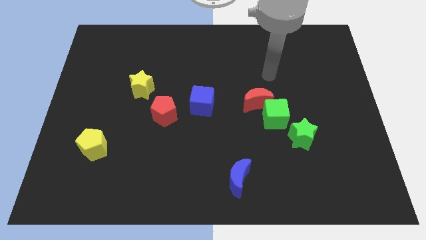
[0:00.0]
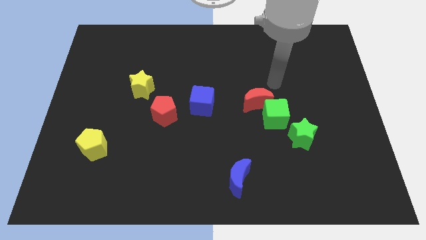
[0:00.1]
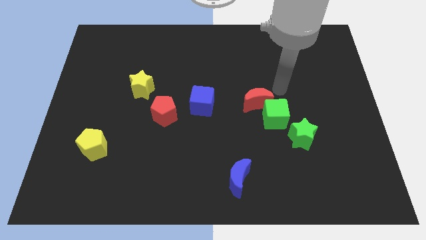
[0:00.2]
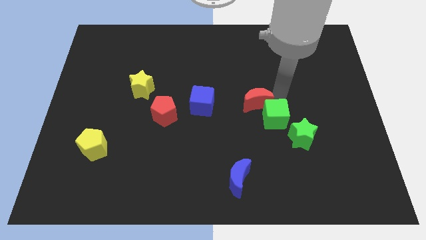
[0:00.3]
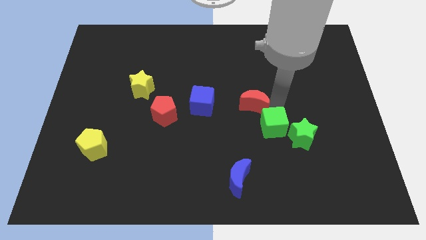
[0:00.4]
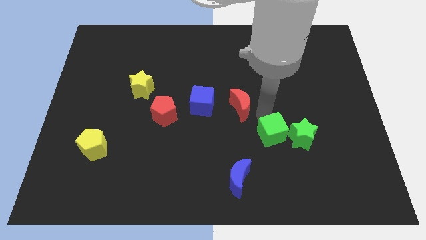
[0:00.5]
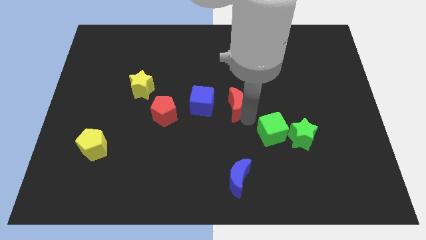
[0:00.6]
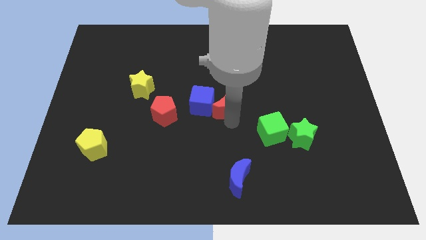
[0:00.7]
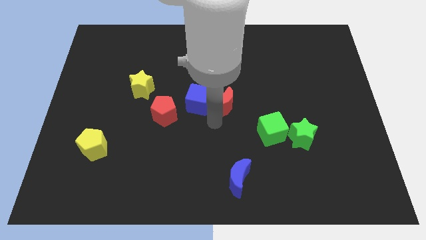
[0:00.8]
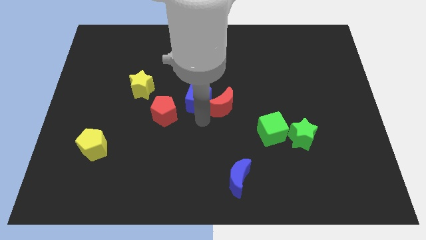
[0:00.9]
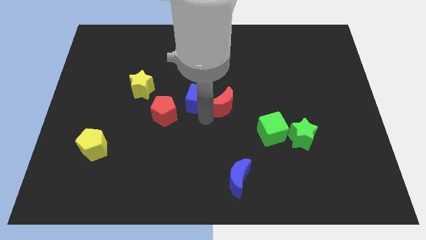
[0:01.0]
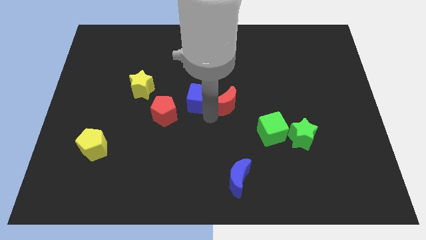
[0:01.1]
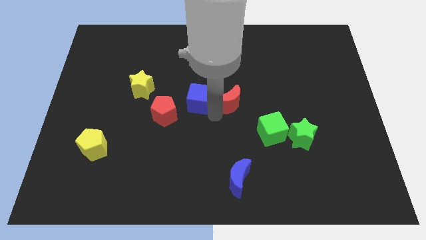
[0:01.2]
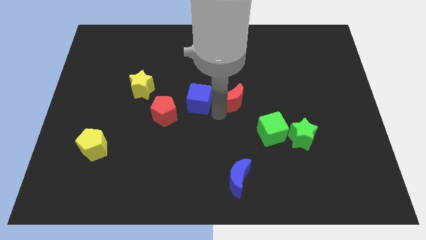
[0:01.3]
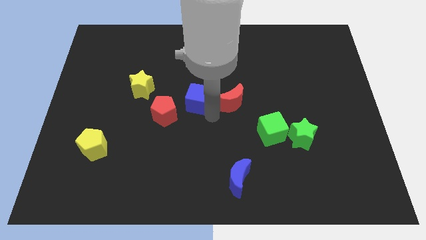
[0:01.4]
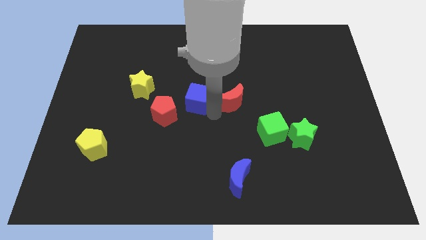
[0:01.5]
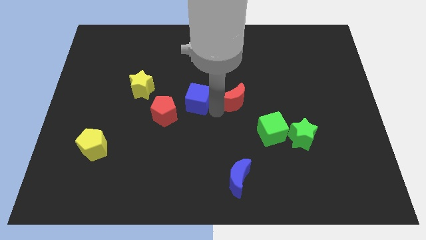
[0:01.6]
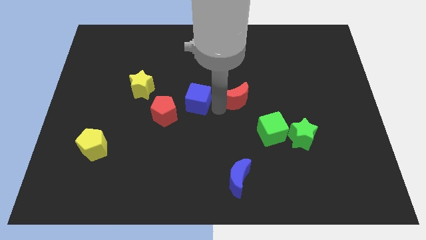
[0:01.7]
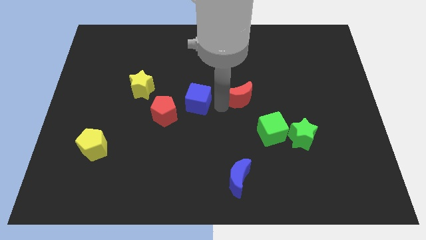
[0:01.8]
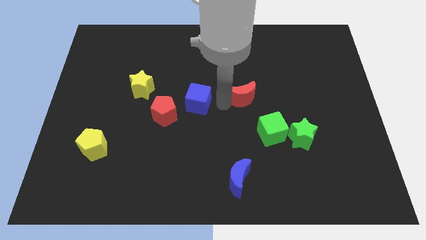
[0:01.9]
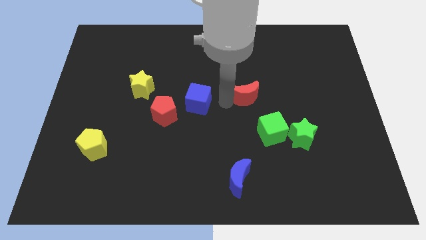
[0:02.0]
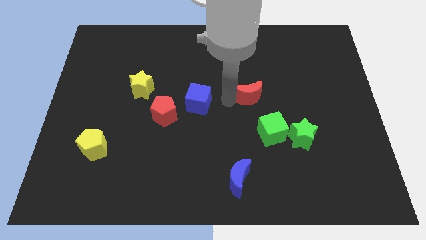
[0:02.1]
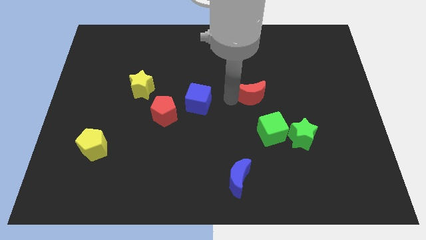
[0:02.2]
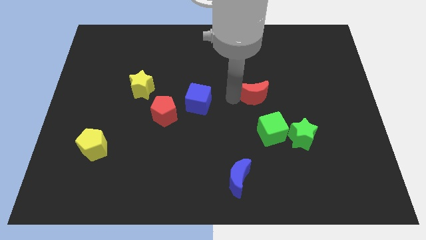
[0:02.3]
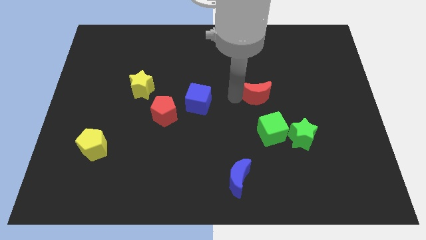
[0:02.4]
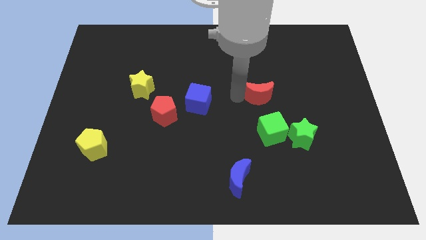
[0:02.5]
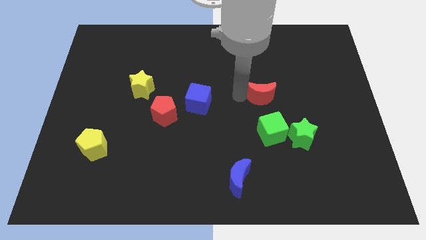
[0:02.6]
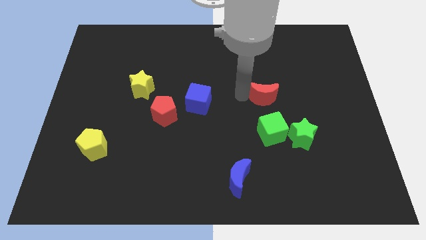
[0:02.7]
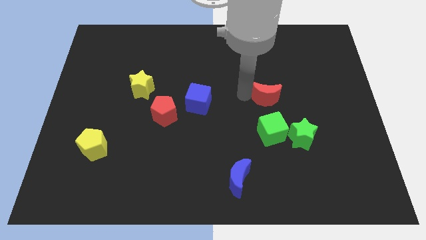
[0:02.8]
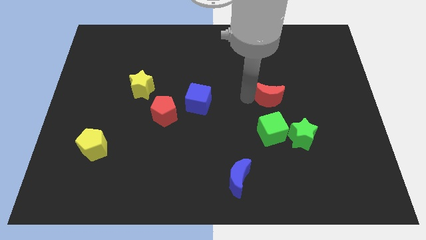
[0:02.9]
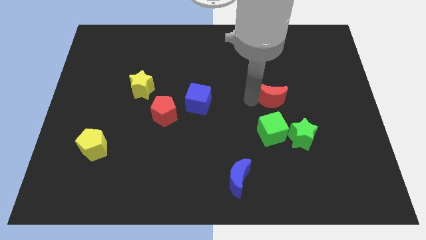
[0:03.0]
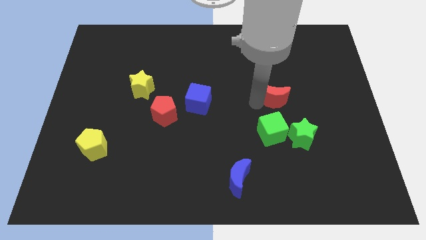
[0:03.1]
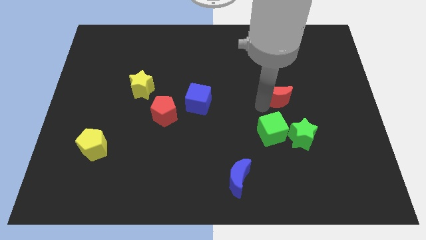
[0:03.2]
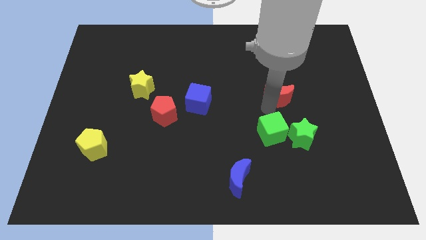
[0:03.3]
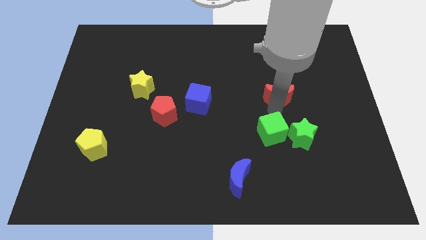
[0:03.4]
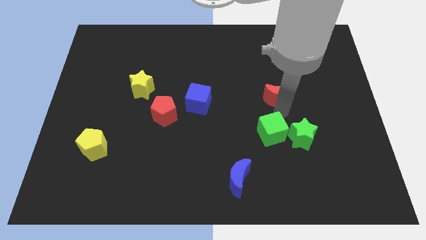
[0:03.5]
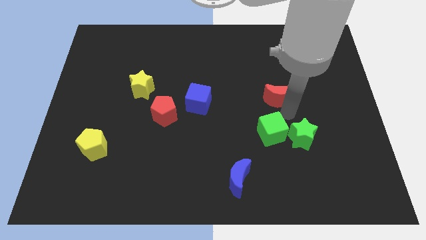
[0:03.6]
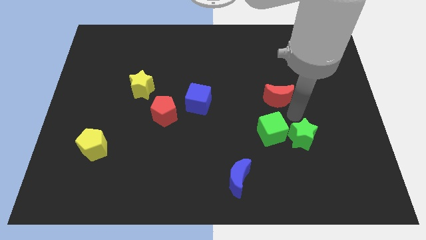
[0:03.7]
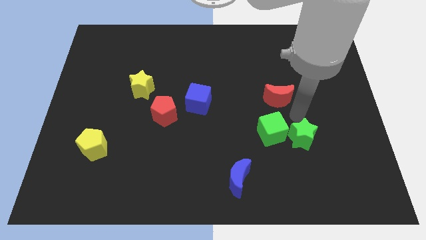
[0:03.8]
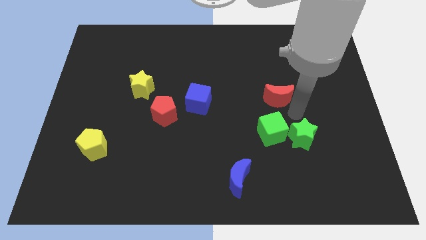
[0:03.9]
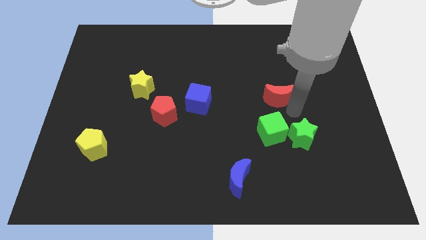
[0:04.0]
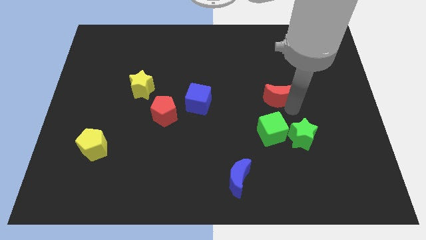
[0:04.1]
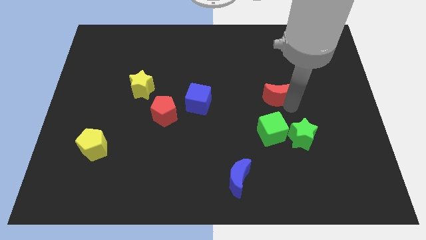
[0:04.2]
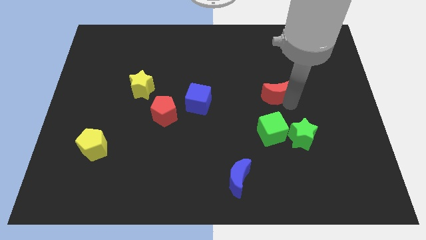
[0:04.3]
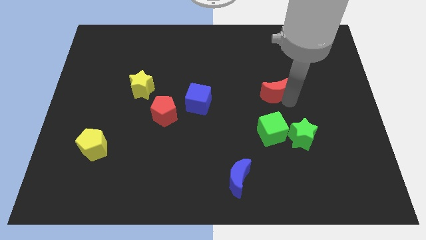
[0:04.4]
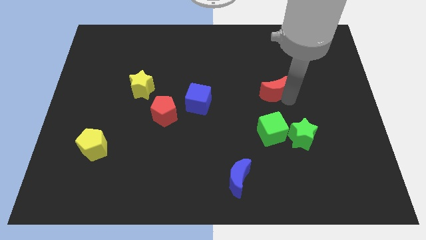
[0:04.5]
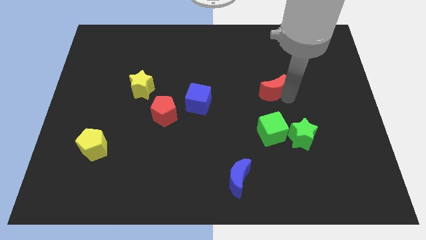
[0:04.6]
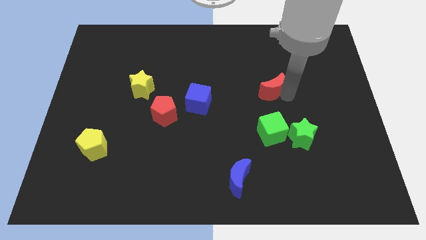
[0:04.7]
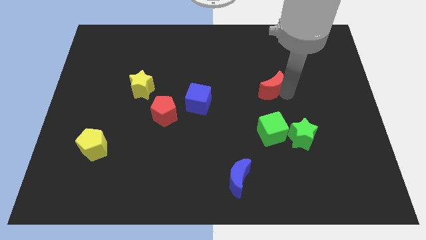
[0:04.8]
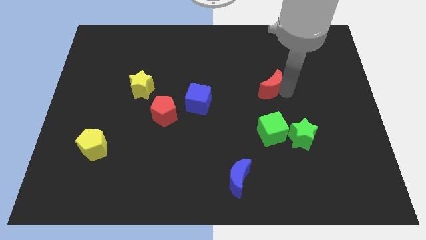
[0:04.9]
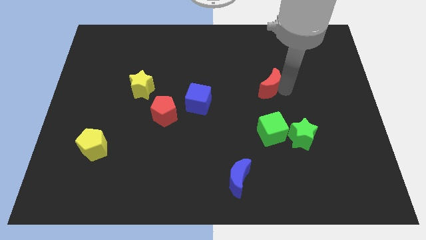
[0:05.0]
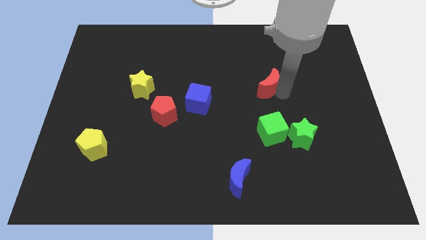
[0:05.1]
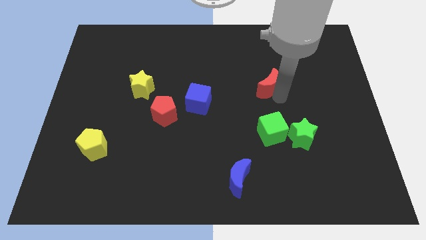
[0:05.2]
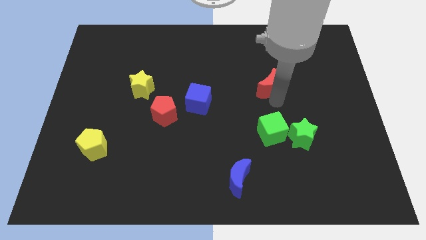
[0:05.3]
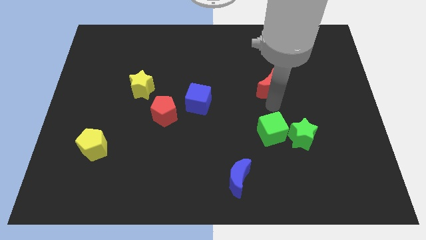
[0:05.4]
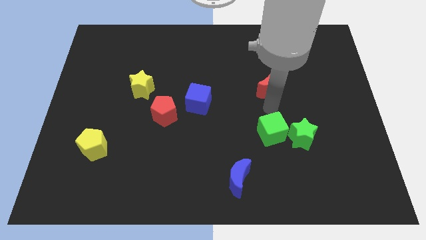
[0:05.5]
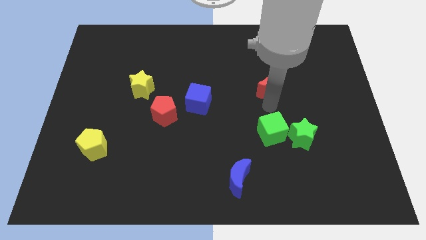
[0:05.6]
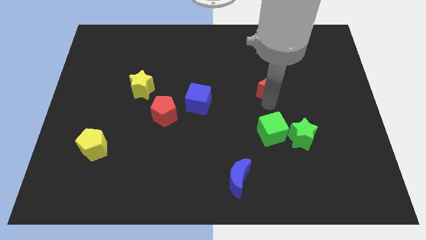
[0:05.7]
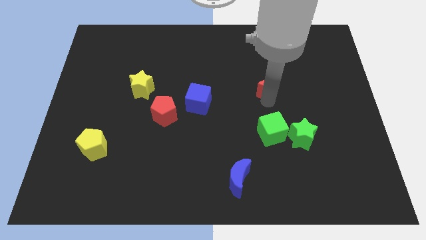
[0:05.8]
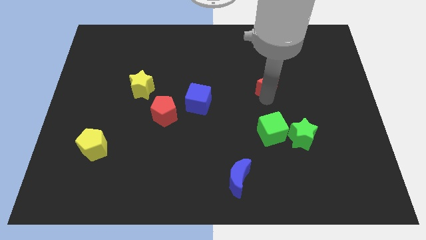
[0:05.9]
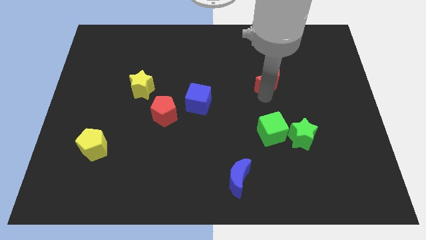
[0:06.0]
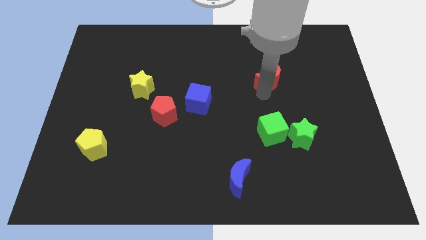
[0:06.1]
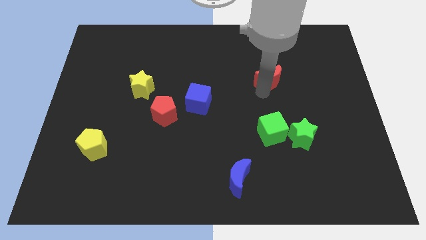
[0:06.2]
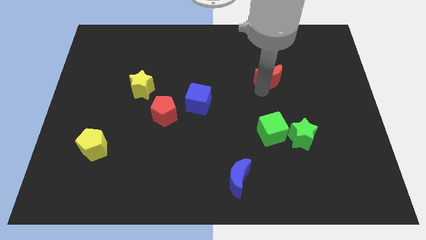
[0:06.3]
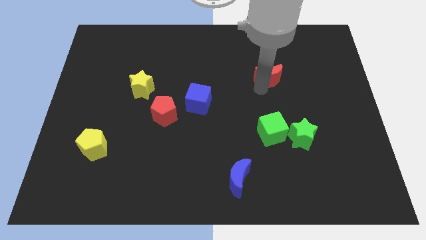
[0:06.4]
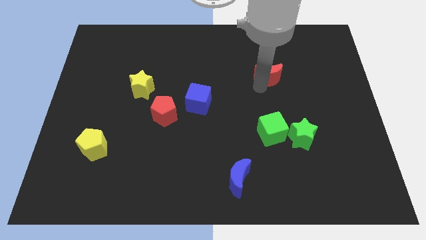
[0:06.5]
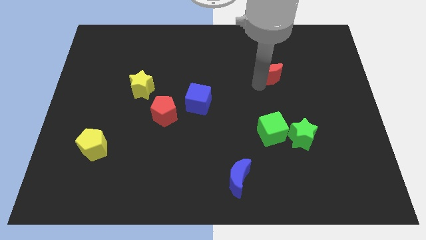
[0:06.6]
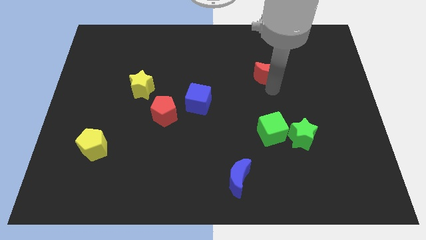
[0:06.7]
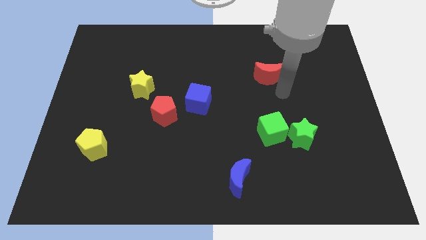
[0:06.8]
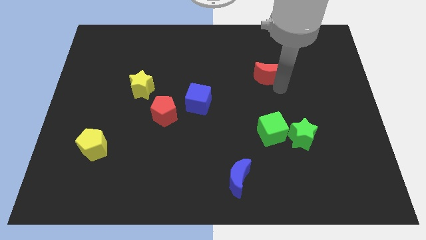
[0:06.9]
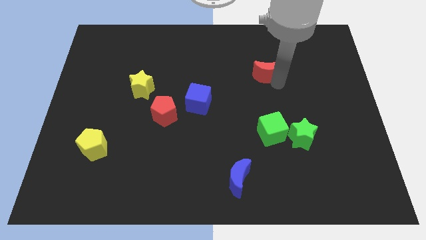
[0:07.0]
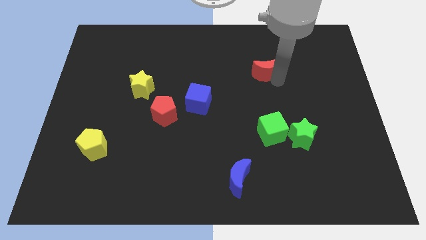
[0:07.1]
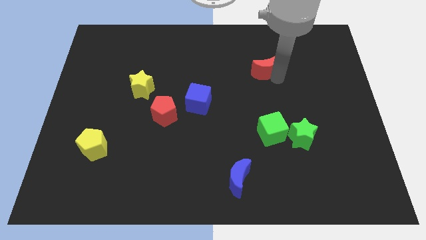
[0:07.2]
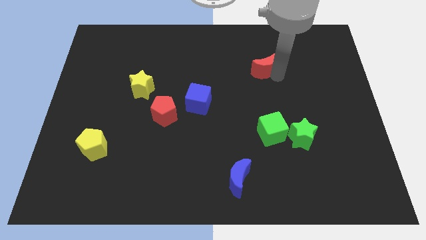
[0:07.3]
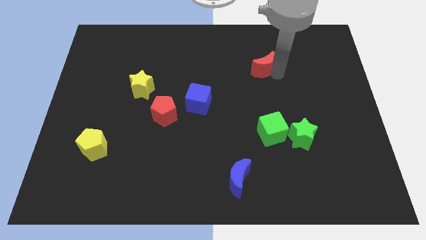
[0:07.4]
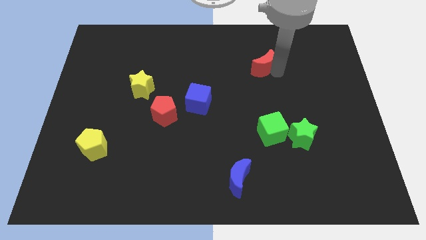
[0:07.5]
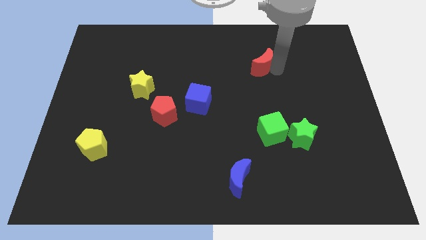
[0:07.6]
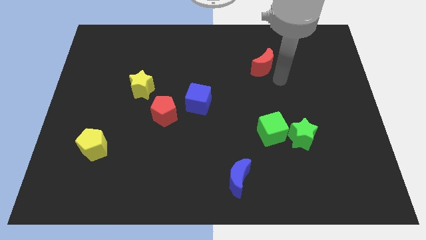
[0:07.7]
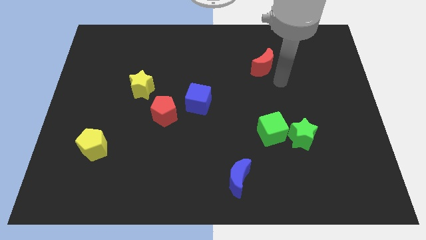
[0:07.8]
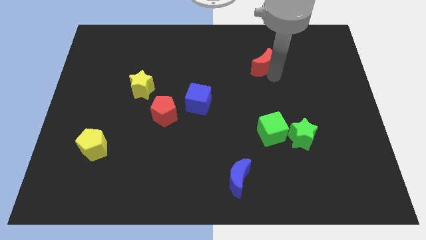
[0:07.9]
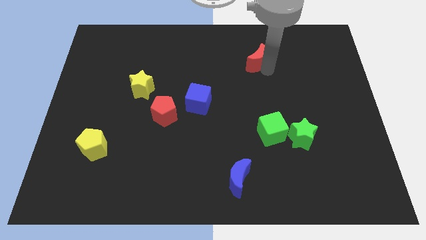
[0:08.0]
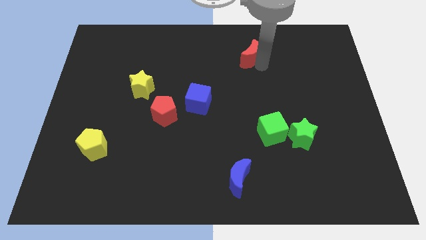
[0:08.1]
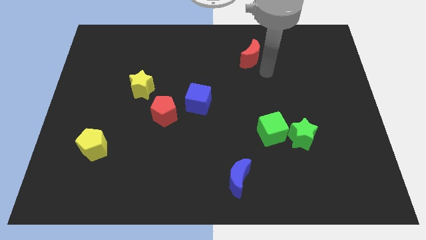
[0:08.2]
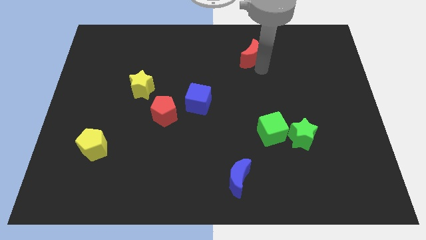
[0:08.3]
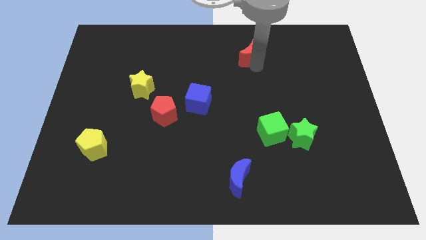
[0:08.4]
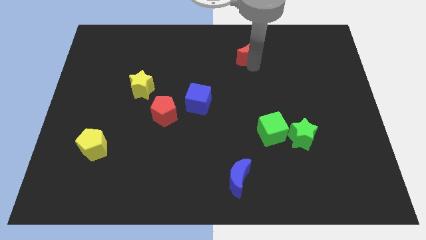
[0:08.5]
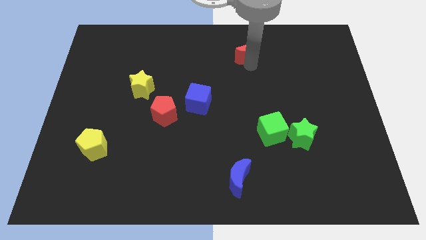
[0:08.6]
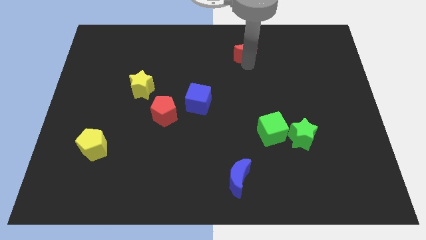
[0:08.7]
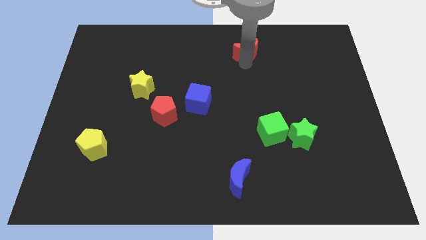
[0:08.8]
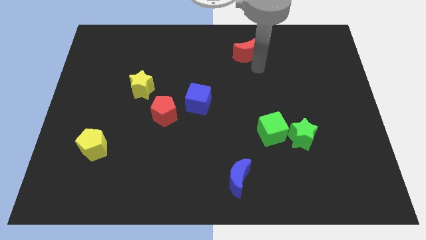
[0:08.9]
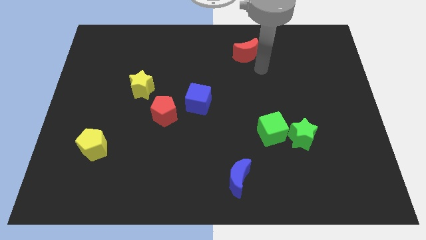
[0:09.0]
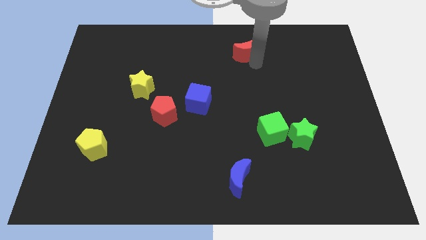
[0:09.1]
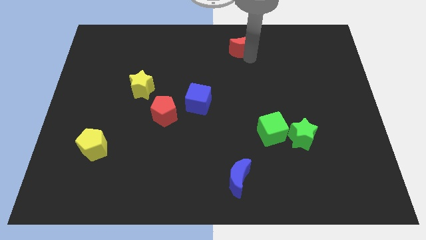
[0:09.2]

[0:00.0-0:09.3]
put the red moon to the top side
